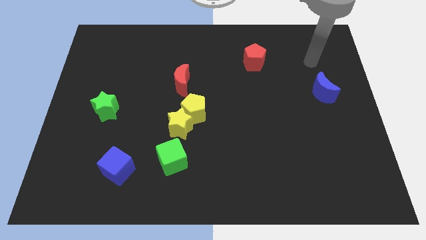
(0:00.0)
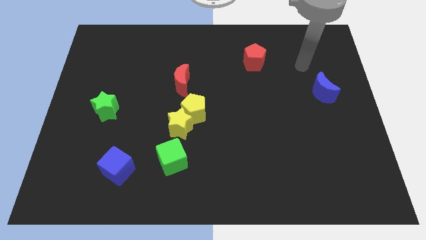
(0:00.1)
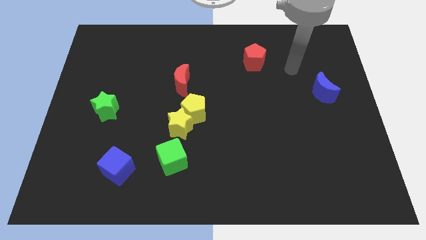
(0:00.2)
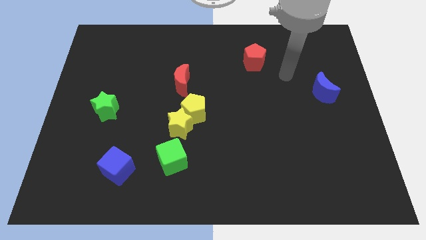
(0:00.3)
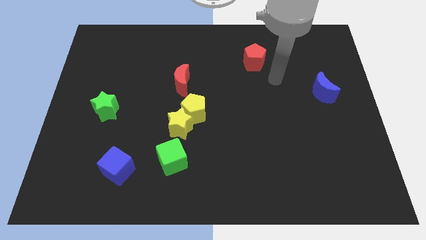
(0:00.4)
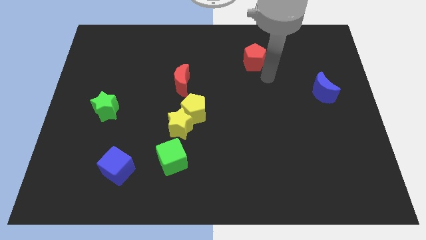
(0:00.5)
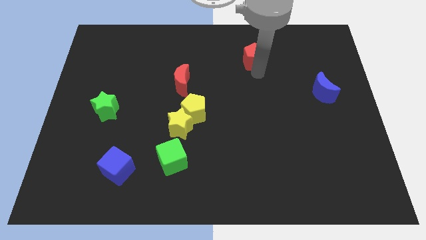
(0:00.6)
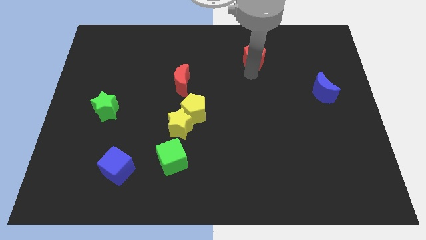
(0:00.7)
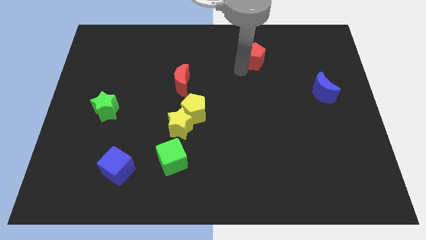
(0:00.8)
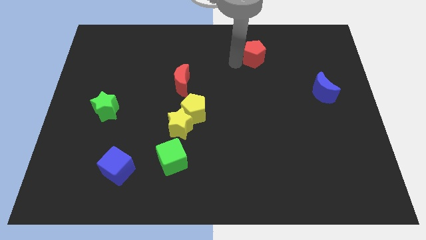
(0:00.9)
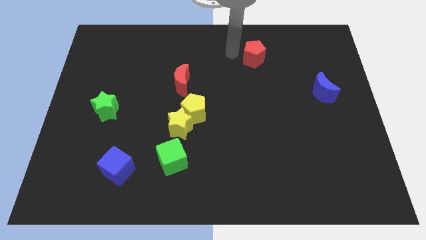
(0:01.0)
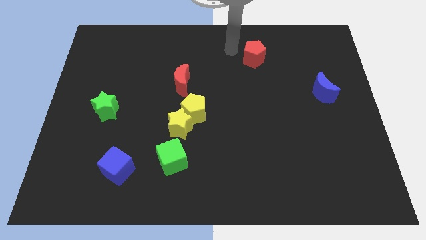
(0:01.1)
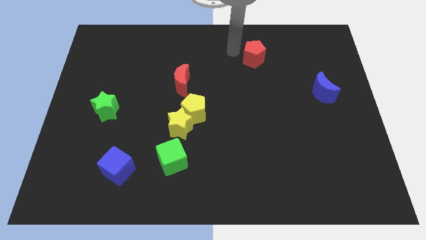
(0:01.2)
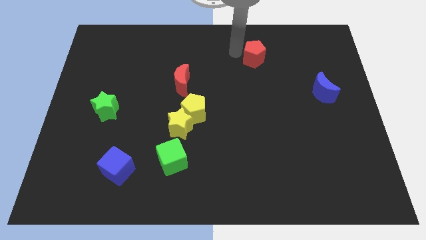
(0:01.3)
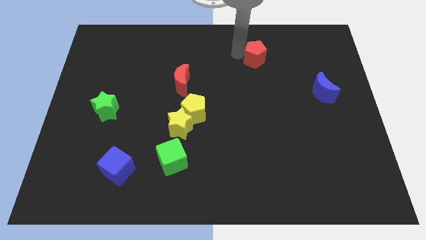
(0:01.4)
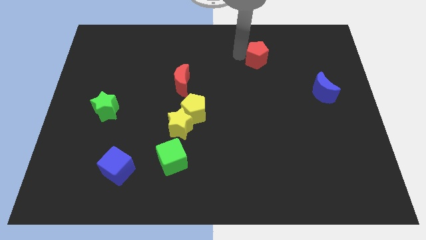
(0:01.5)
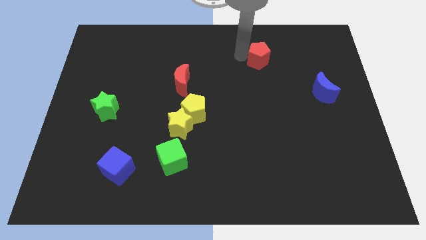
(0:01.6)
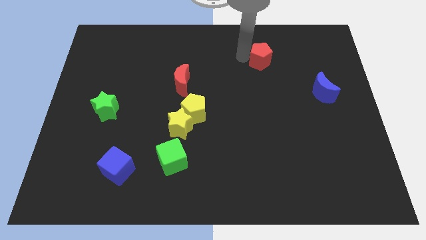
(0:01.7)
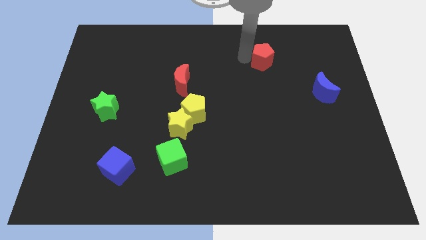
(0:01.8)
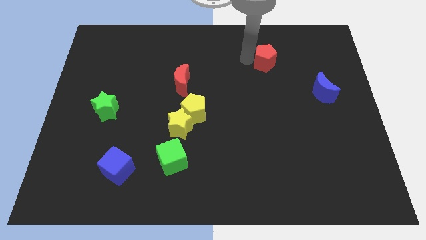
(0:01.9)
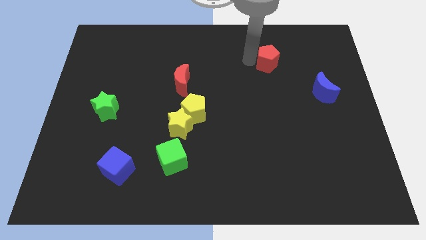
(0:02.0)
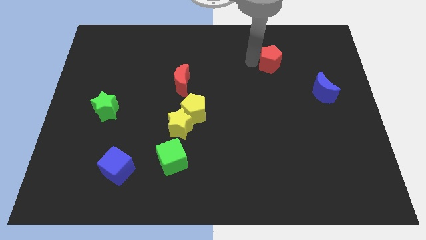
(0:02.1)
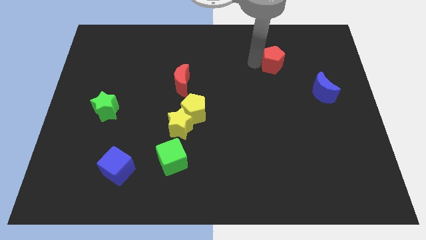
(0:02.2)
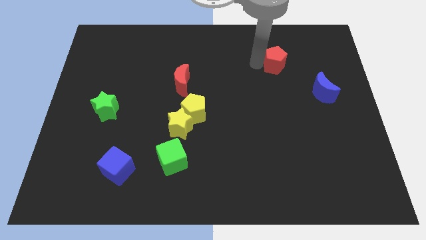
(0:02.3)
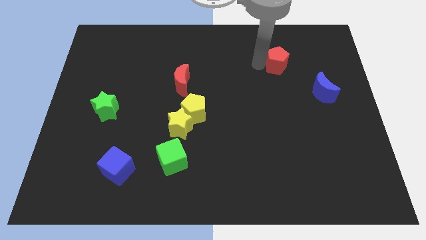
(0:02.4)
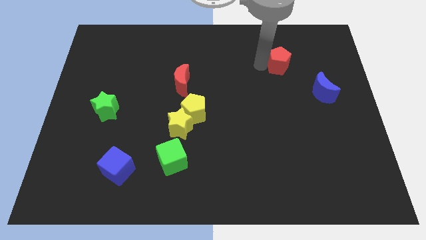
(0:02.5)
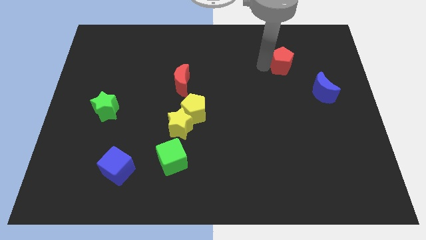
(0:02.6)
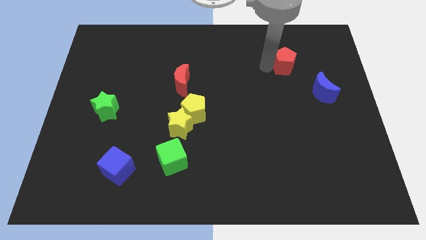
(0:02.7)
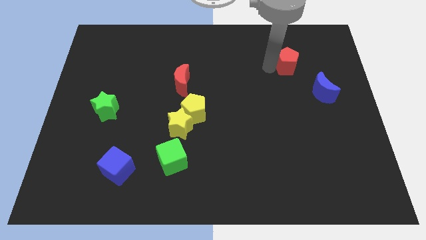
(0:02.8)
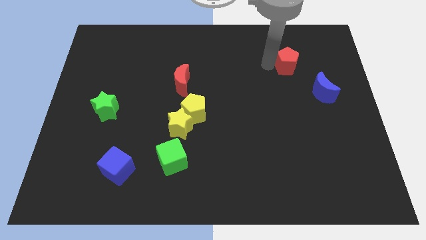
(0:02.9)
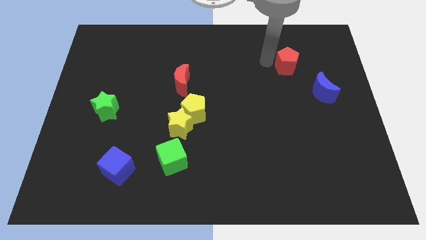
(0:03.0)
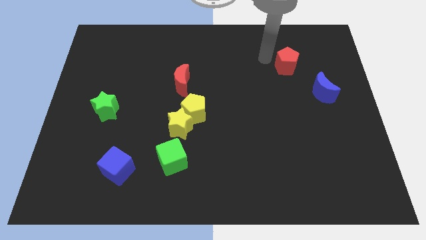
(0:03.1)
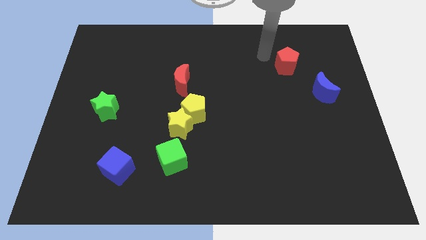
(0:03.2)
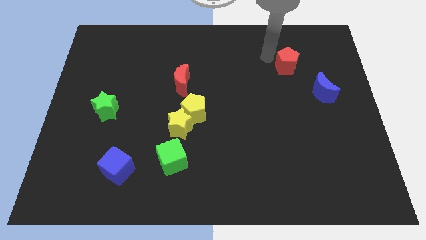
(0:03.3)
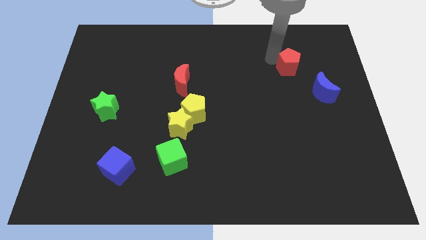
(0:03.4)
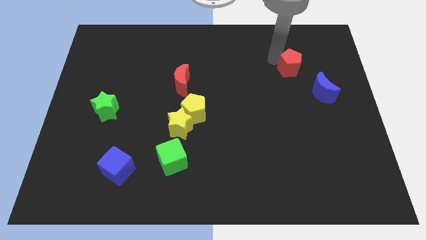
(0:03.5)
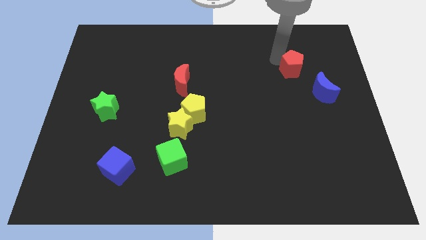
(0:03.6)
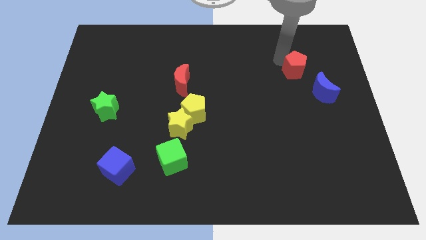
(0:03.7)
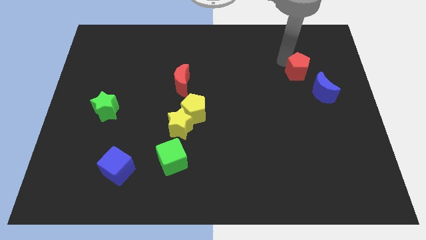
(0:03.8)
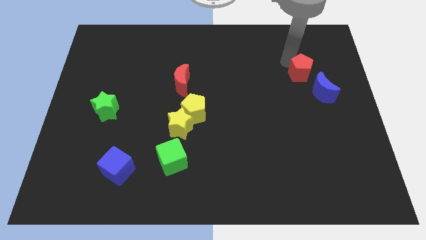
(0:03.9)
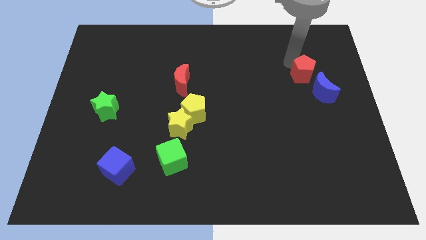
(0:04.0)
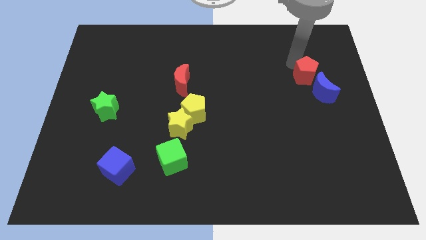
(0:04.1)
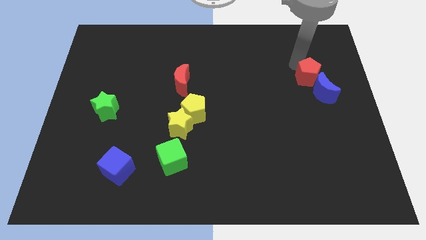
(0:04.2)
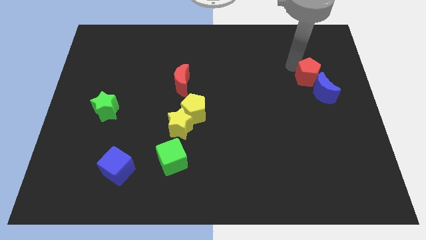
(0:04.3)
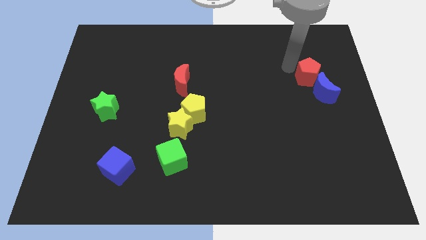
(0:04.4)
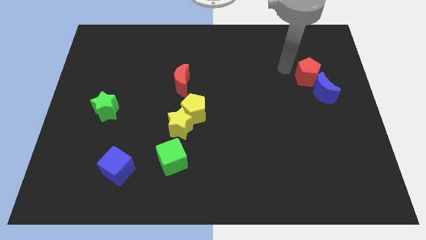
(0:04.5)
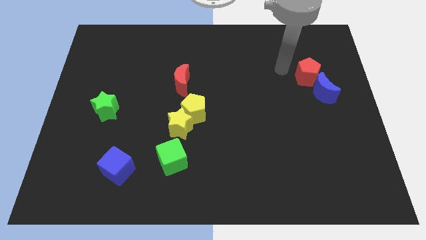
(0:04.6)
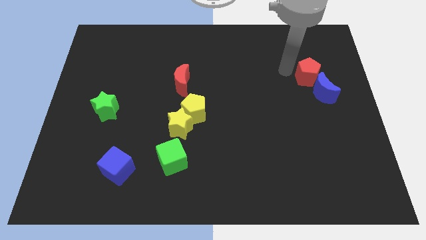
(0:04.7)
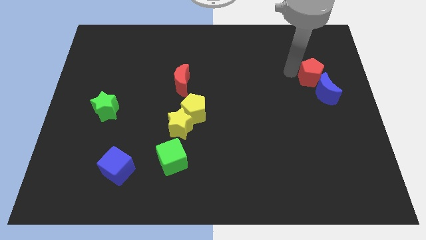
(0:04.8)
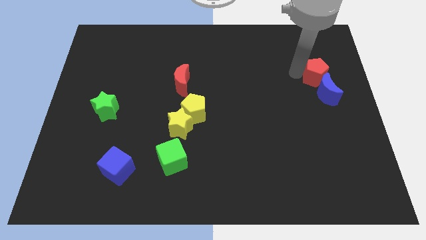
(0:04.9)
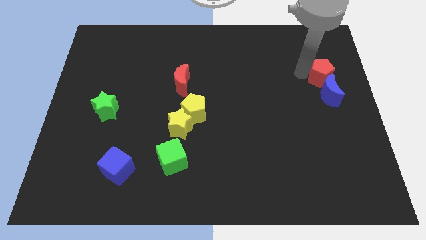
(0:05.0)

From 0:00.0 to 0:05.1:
move the red pentagon to the right side of the board

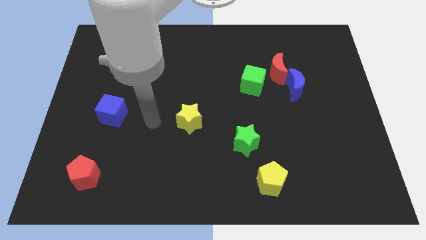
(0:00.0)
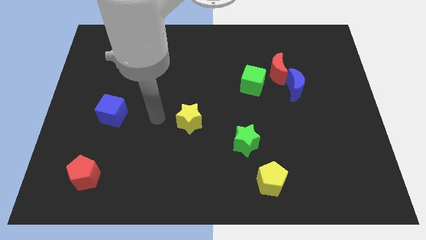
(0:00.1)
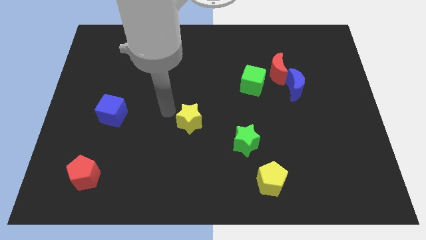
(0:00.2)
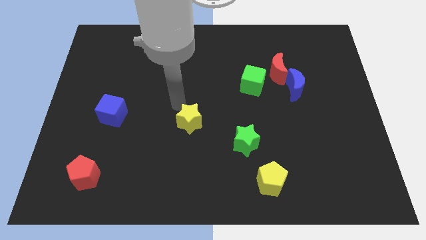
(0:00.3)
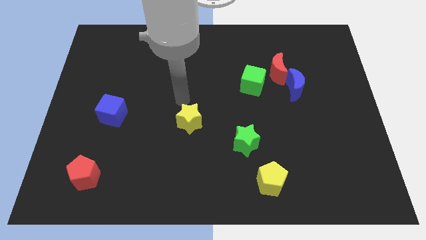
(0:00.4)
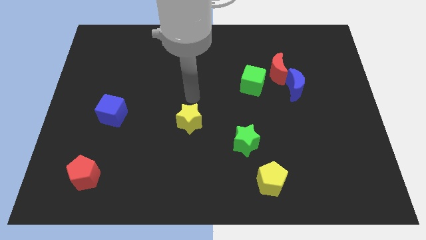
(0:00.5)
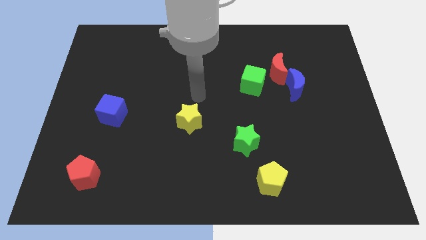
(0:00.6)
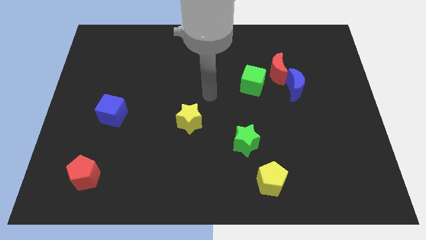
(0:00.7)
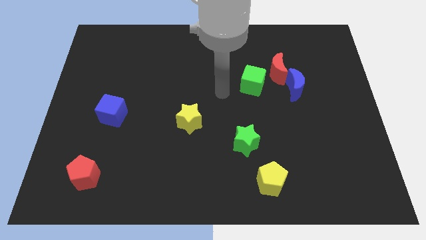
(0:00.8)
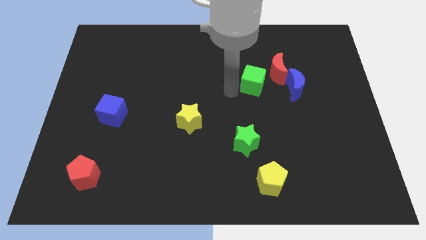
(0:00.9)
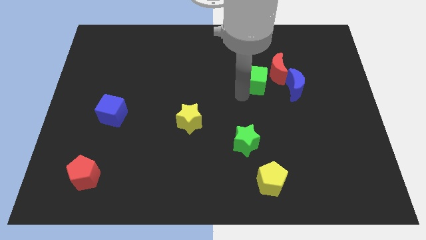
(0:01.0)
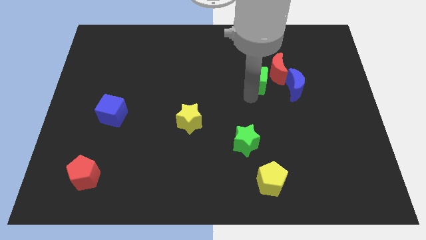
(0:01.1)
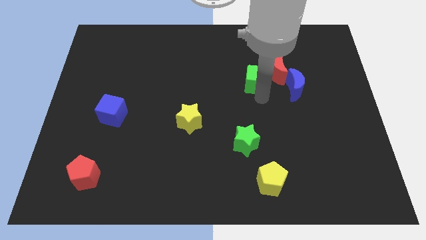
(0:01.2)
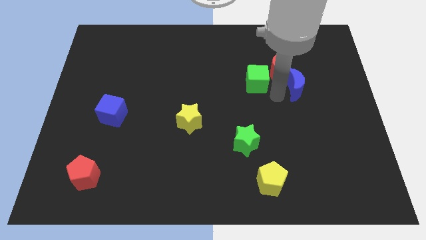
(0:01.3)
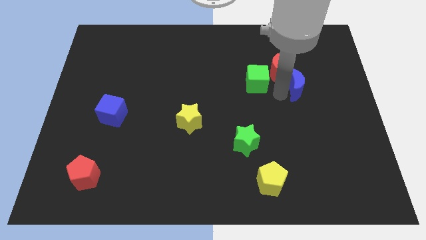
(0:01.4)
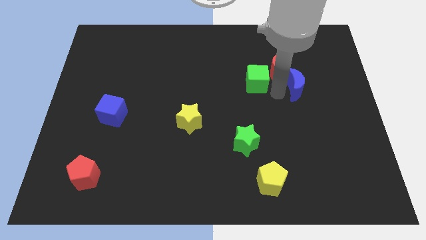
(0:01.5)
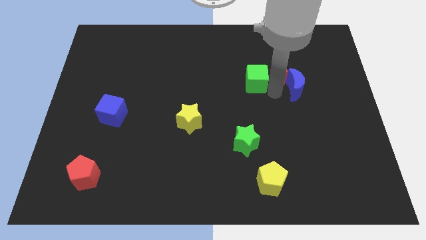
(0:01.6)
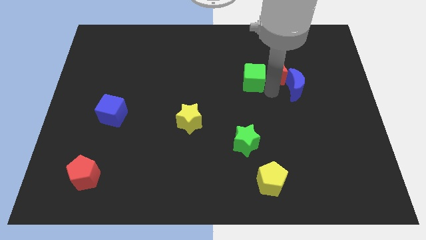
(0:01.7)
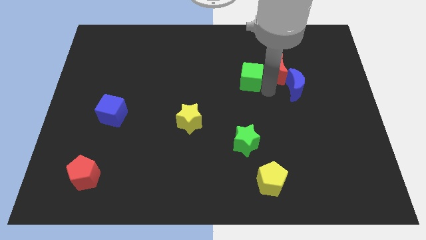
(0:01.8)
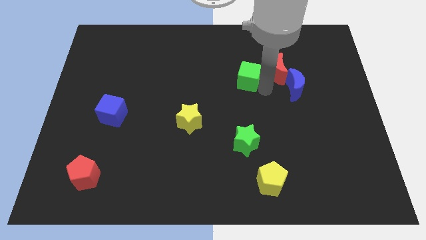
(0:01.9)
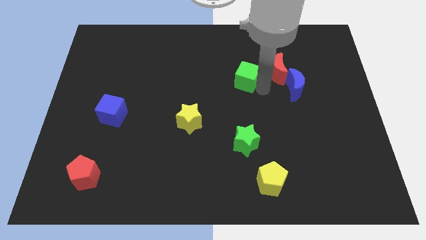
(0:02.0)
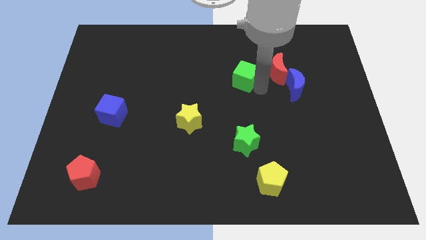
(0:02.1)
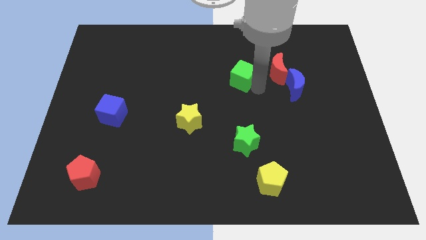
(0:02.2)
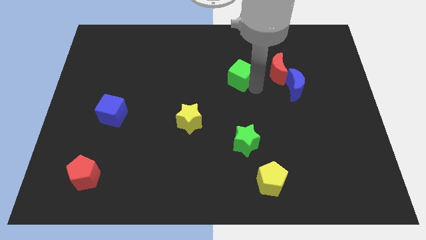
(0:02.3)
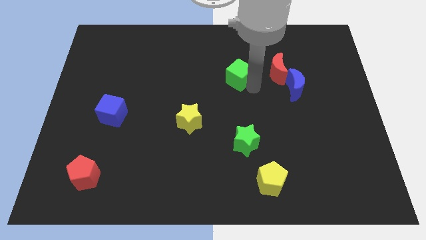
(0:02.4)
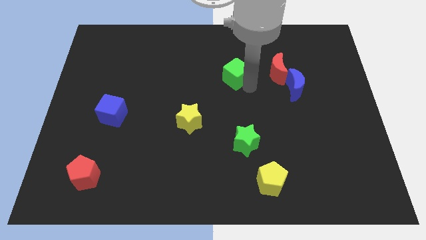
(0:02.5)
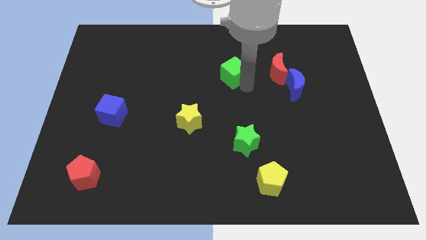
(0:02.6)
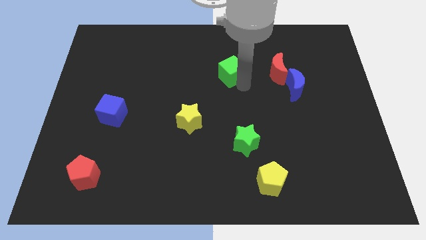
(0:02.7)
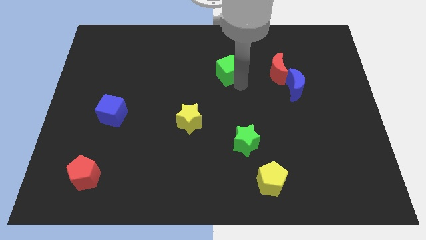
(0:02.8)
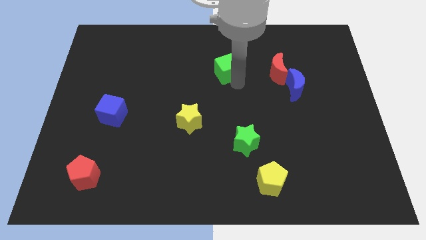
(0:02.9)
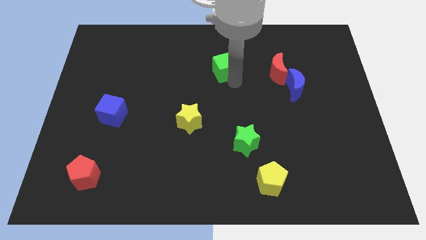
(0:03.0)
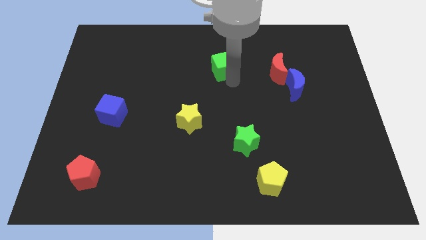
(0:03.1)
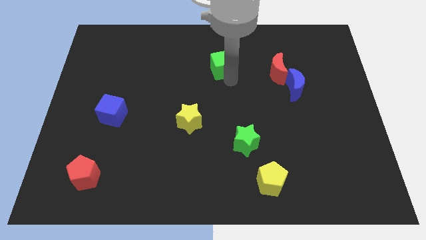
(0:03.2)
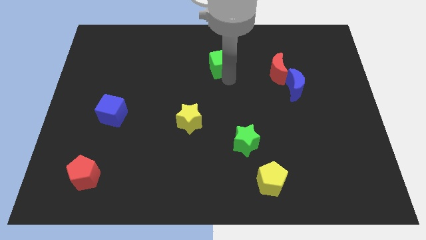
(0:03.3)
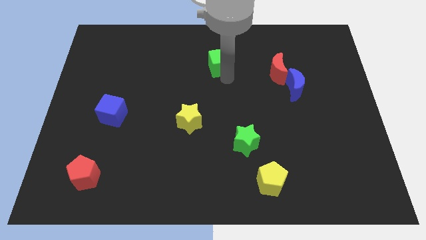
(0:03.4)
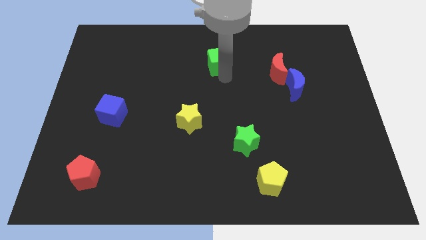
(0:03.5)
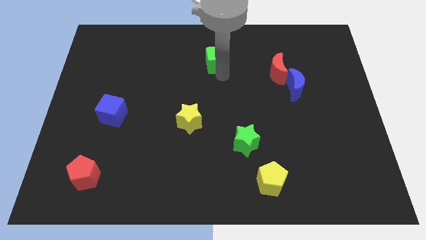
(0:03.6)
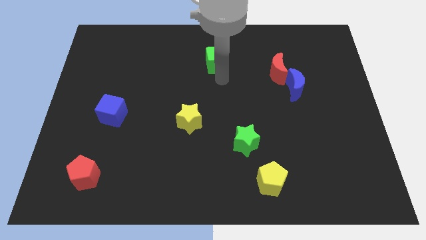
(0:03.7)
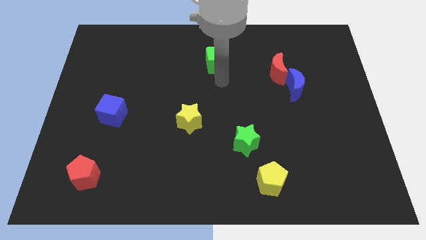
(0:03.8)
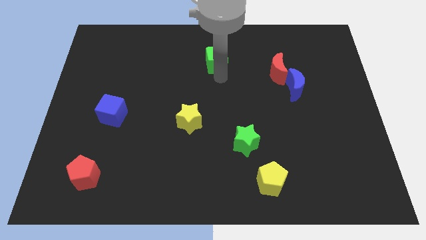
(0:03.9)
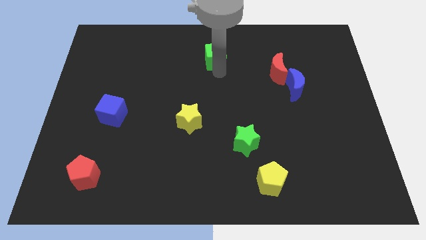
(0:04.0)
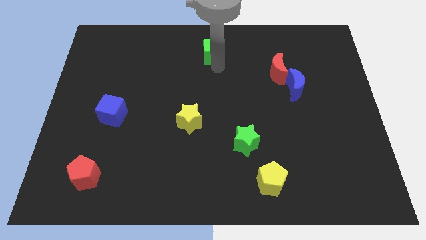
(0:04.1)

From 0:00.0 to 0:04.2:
slide the green cube to the top side
